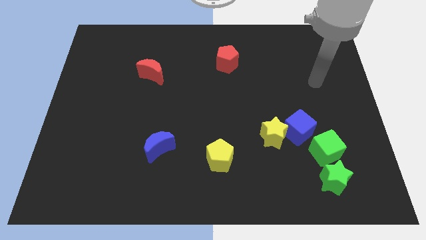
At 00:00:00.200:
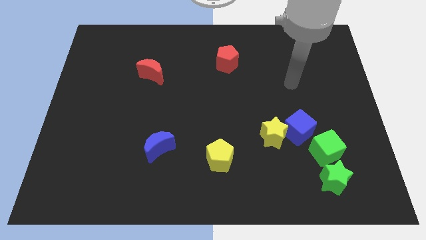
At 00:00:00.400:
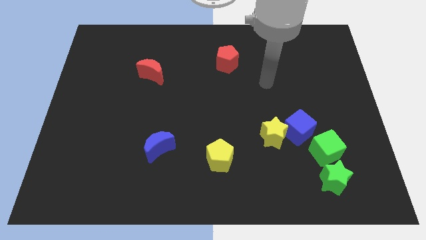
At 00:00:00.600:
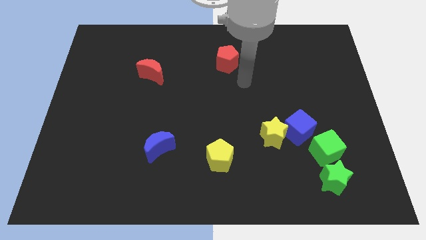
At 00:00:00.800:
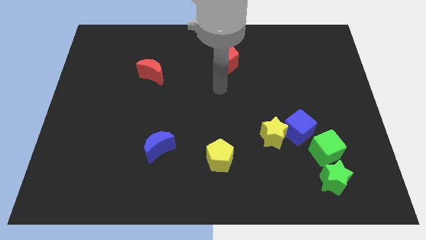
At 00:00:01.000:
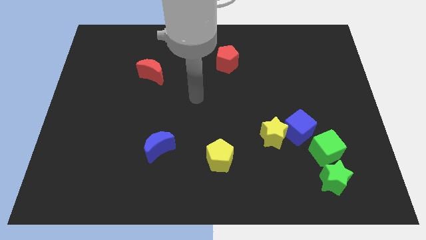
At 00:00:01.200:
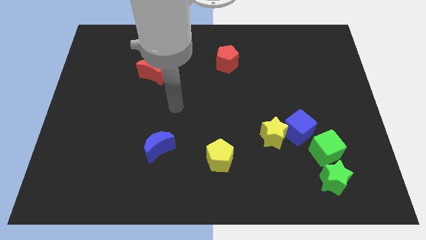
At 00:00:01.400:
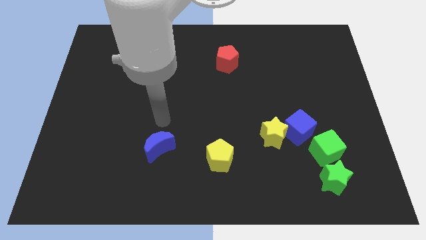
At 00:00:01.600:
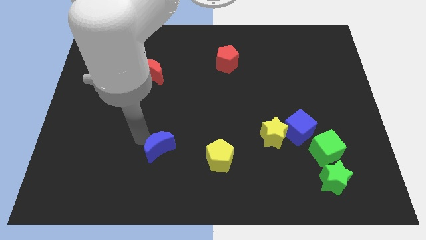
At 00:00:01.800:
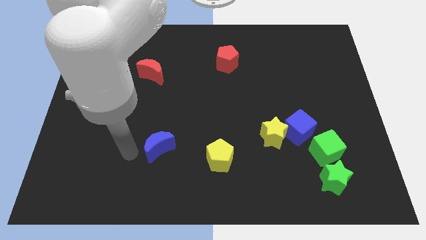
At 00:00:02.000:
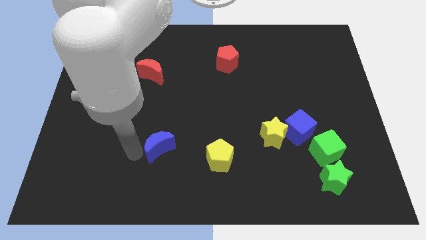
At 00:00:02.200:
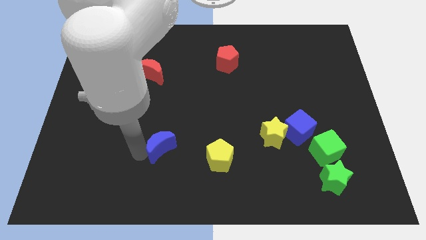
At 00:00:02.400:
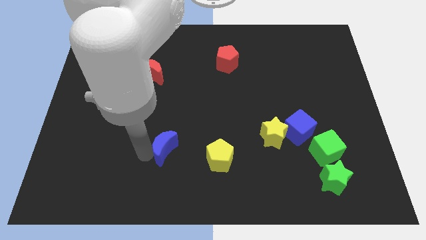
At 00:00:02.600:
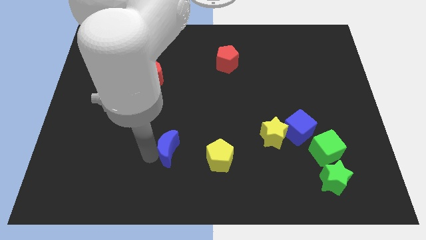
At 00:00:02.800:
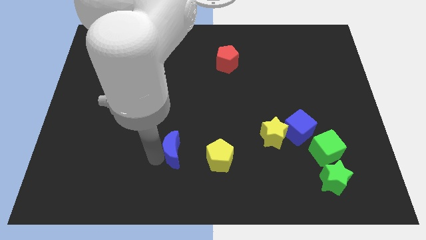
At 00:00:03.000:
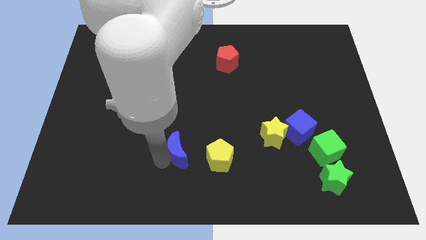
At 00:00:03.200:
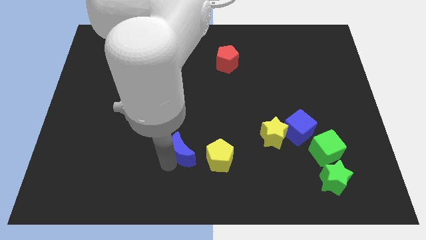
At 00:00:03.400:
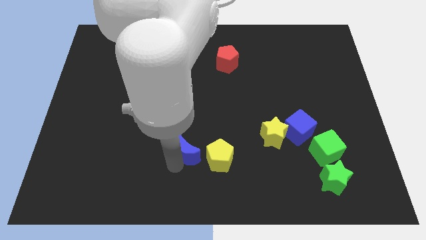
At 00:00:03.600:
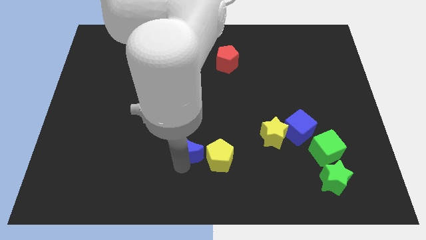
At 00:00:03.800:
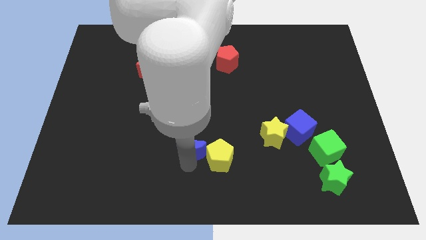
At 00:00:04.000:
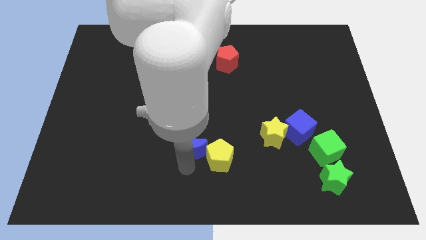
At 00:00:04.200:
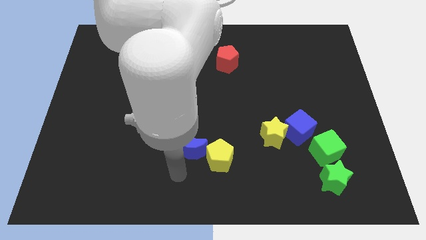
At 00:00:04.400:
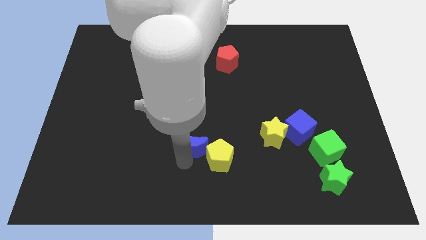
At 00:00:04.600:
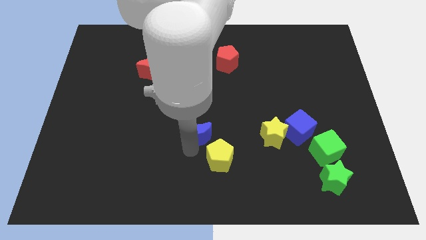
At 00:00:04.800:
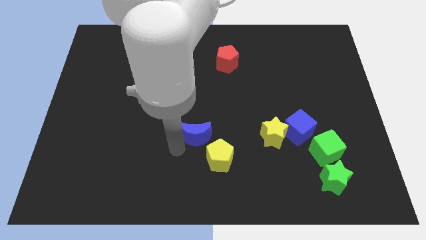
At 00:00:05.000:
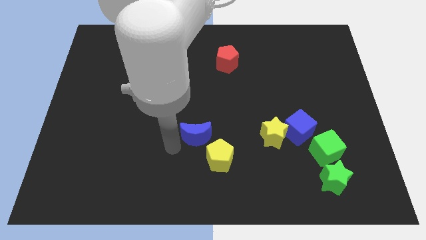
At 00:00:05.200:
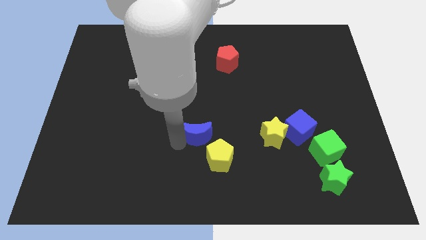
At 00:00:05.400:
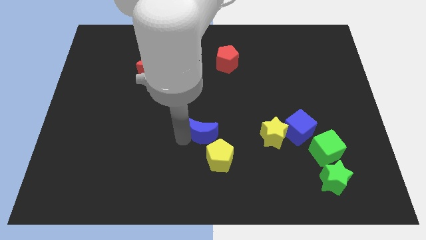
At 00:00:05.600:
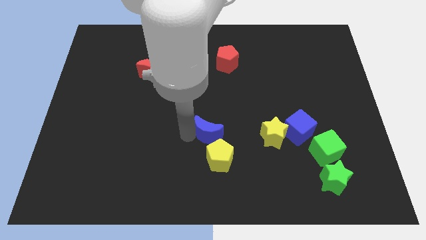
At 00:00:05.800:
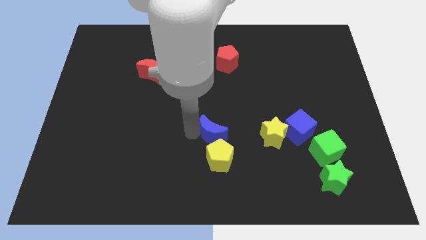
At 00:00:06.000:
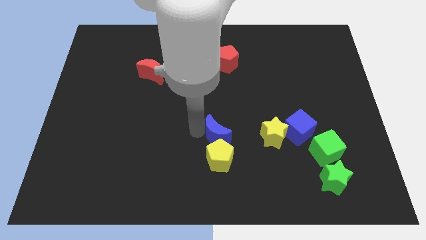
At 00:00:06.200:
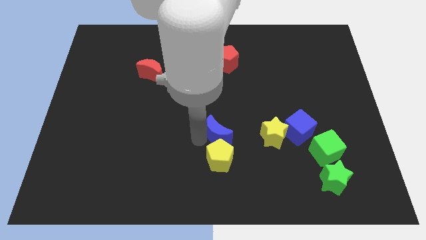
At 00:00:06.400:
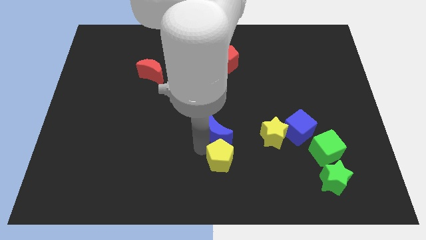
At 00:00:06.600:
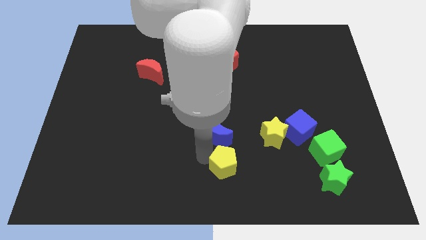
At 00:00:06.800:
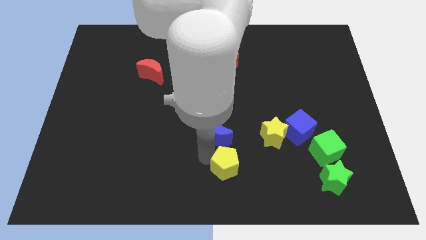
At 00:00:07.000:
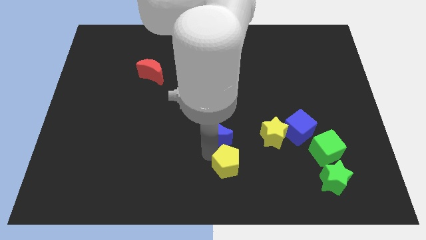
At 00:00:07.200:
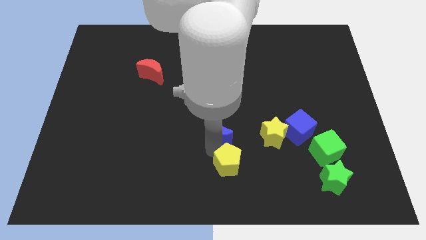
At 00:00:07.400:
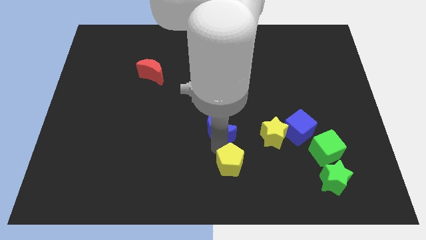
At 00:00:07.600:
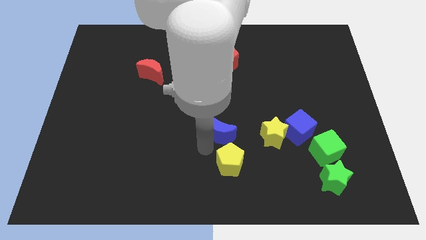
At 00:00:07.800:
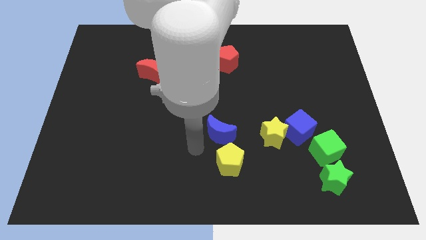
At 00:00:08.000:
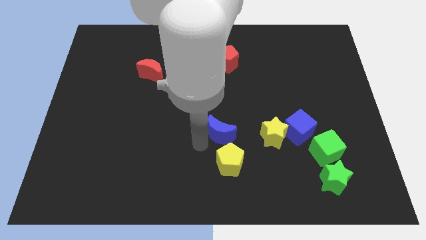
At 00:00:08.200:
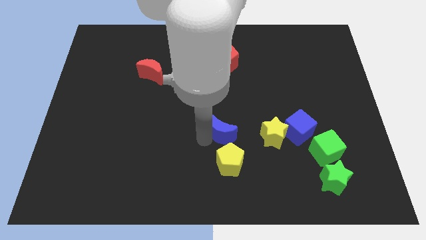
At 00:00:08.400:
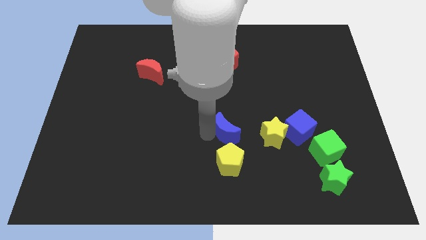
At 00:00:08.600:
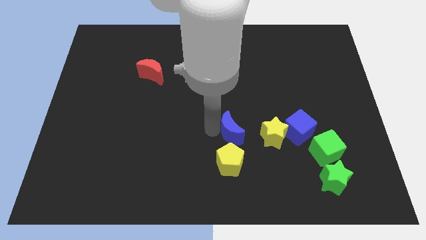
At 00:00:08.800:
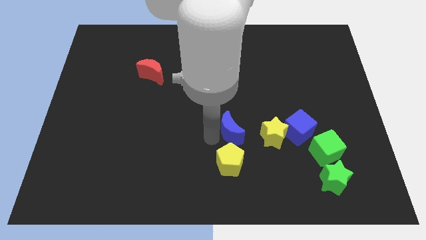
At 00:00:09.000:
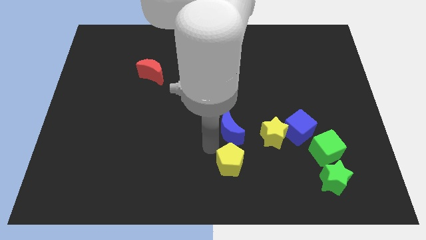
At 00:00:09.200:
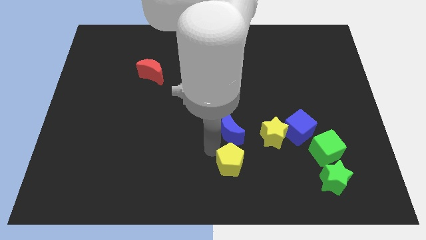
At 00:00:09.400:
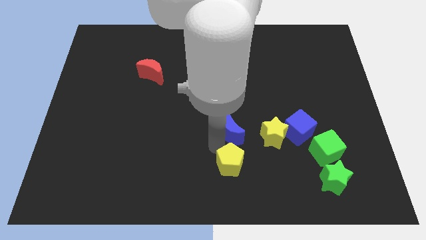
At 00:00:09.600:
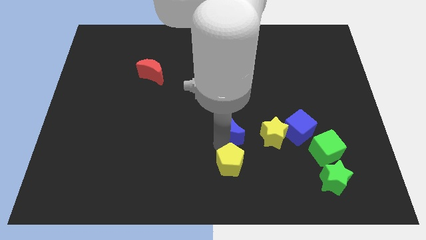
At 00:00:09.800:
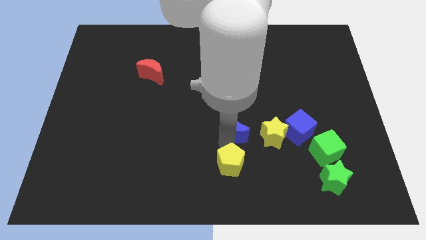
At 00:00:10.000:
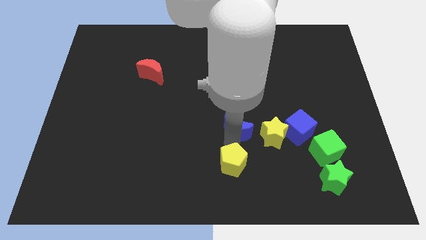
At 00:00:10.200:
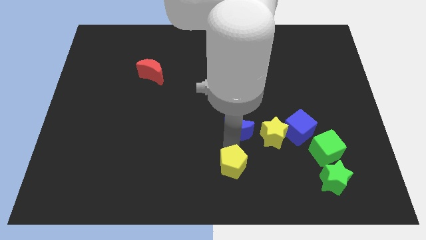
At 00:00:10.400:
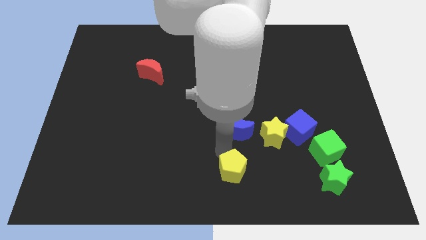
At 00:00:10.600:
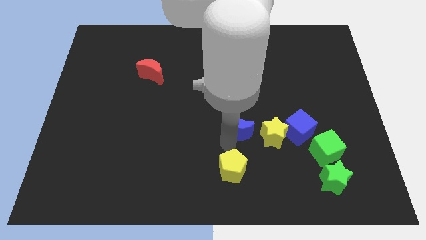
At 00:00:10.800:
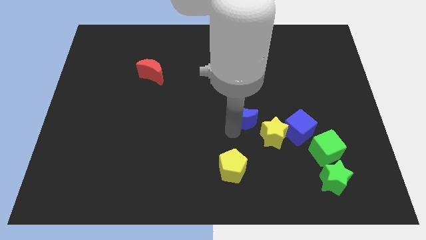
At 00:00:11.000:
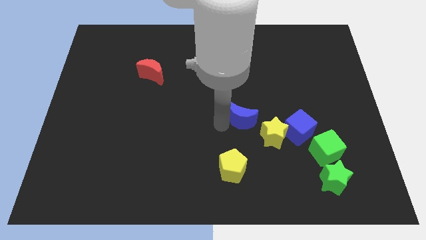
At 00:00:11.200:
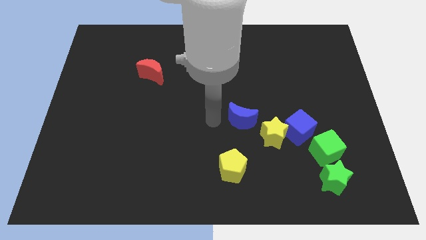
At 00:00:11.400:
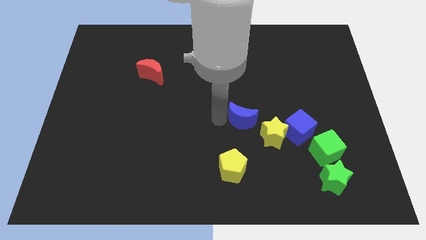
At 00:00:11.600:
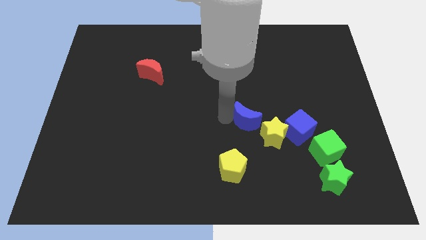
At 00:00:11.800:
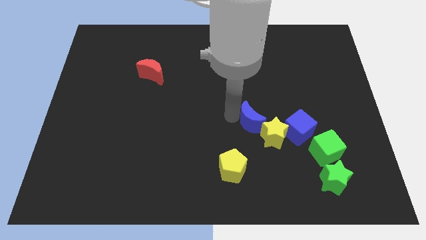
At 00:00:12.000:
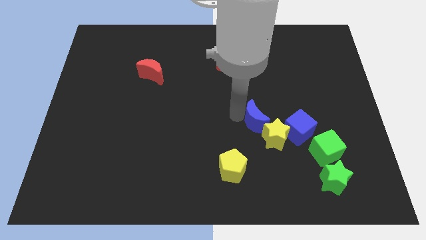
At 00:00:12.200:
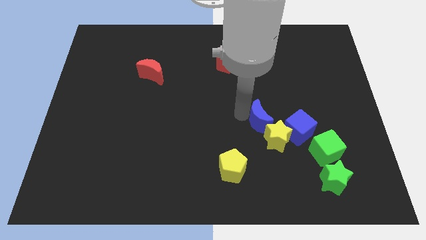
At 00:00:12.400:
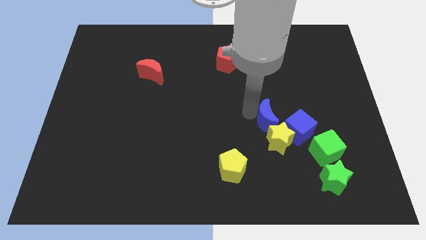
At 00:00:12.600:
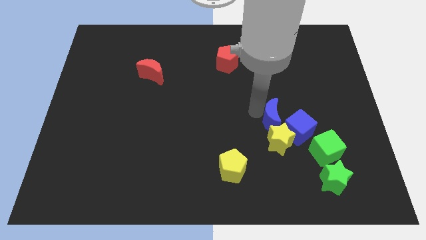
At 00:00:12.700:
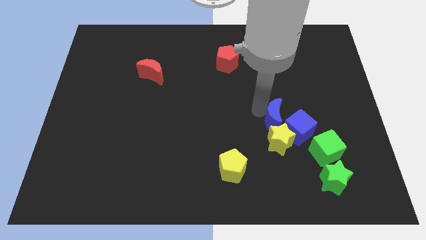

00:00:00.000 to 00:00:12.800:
put the blue moon next to the blue cube

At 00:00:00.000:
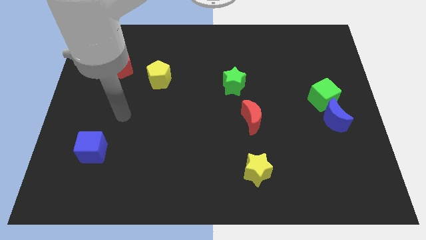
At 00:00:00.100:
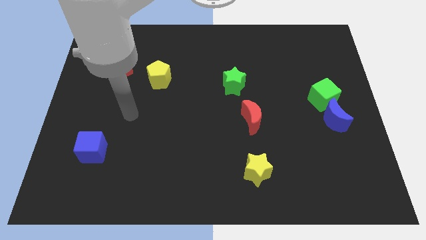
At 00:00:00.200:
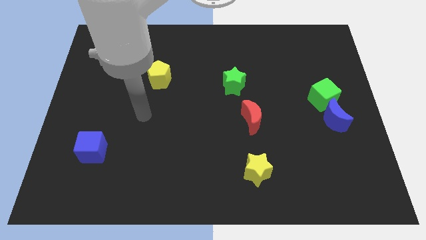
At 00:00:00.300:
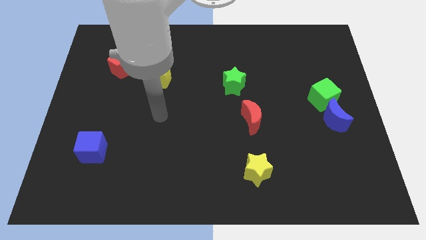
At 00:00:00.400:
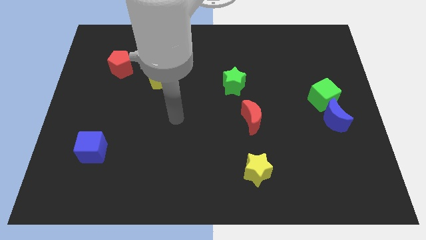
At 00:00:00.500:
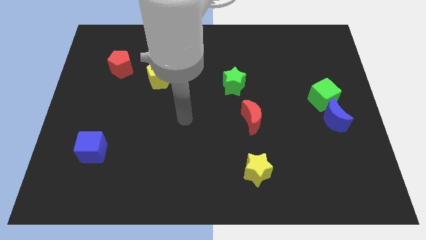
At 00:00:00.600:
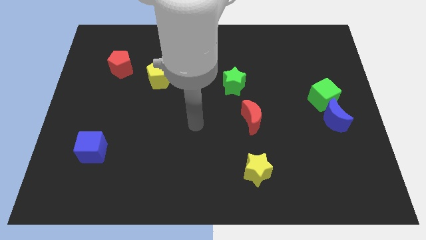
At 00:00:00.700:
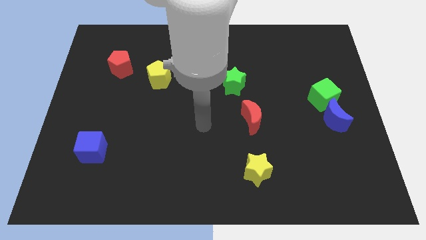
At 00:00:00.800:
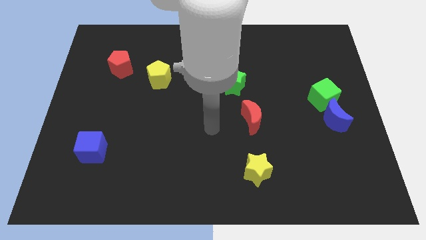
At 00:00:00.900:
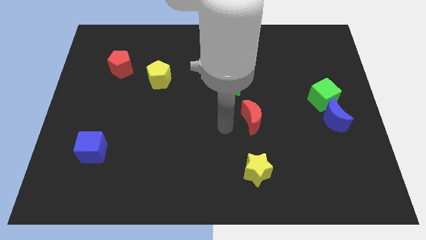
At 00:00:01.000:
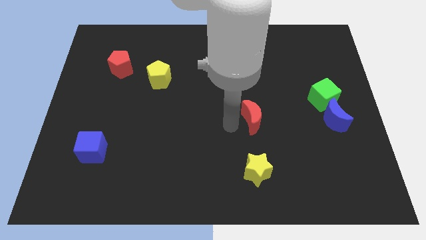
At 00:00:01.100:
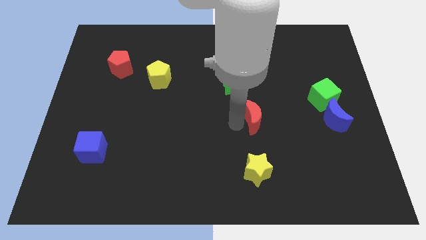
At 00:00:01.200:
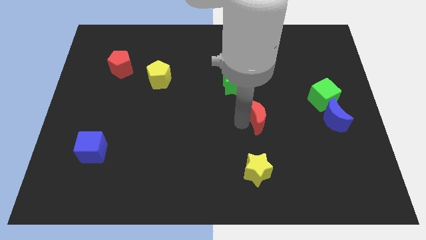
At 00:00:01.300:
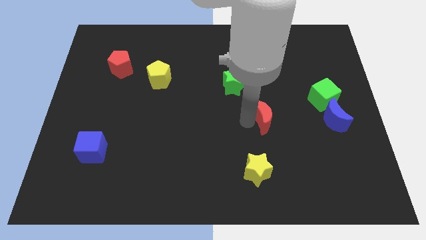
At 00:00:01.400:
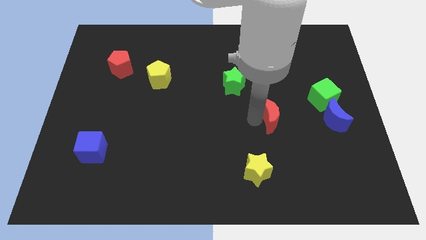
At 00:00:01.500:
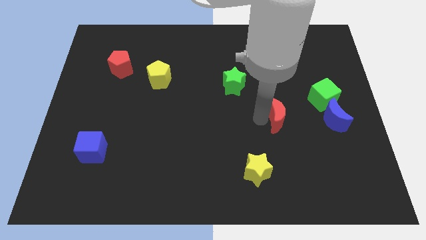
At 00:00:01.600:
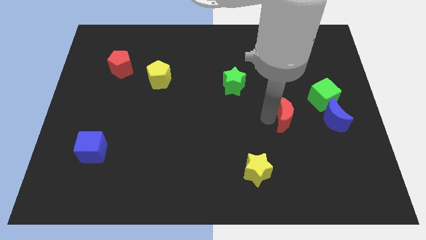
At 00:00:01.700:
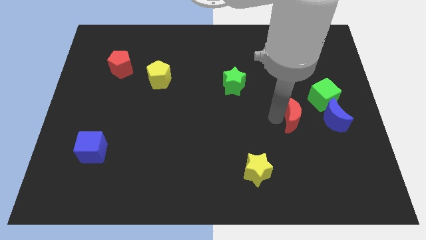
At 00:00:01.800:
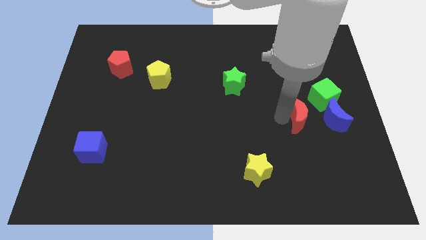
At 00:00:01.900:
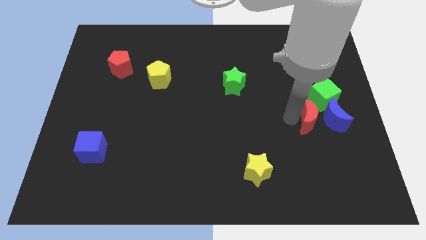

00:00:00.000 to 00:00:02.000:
move the red moon next to the blue moon

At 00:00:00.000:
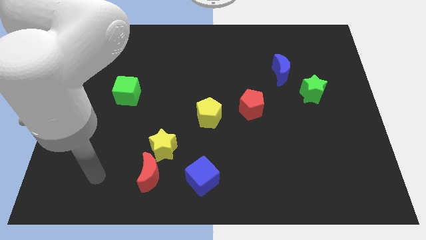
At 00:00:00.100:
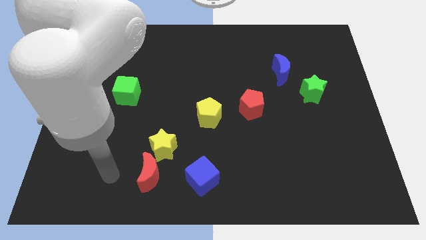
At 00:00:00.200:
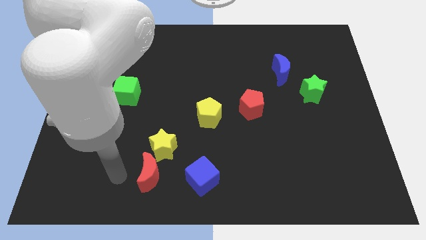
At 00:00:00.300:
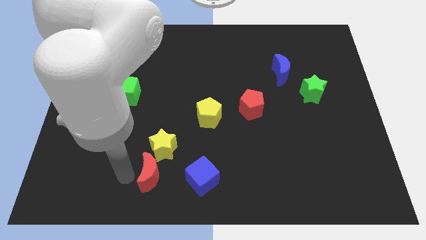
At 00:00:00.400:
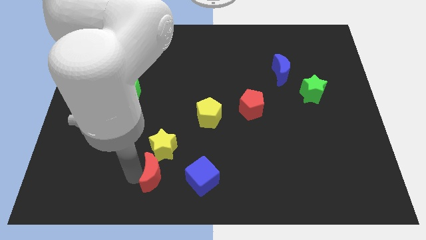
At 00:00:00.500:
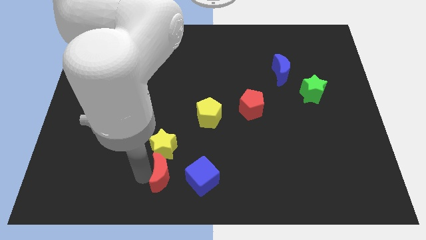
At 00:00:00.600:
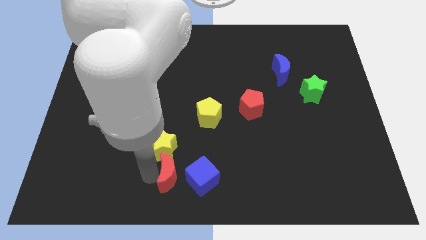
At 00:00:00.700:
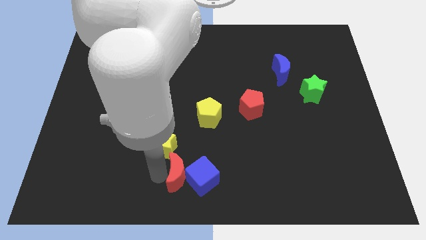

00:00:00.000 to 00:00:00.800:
move the red moon next to the blue cube
